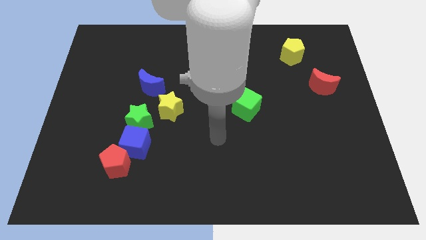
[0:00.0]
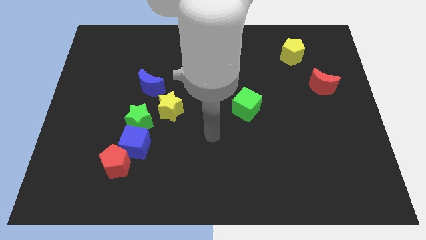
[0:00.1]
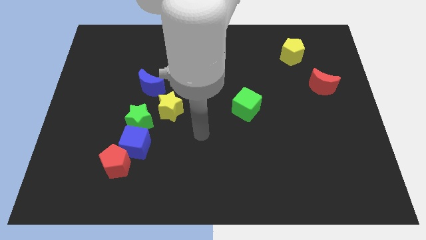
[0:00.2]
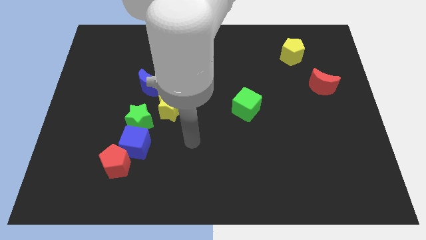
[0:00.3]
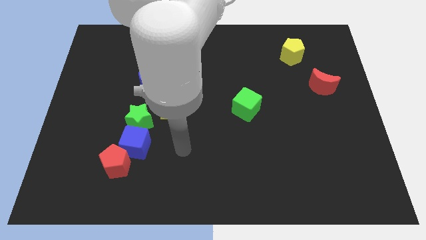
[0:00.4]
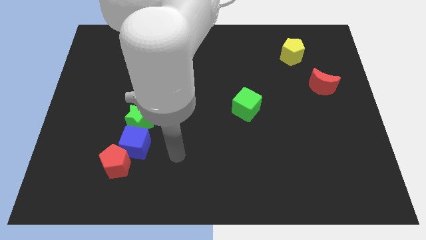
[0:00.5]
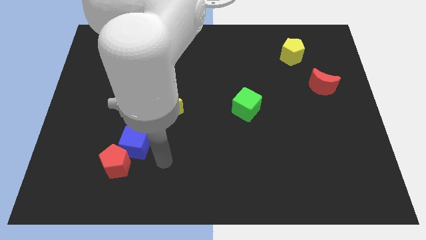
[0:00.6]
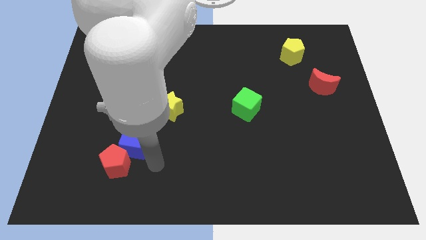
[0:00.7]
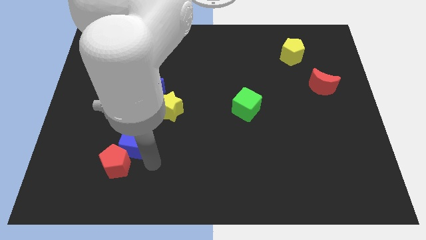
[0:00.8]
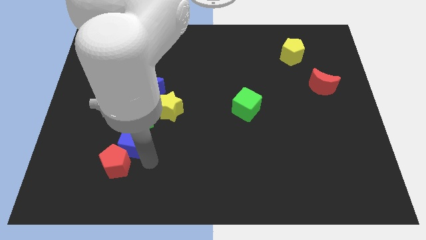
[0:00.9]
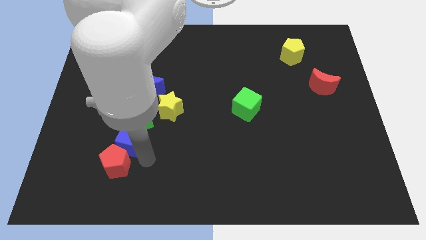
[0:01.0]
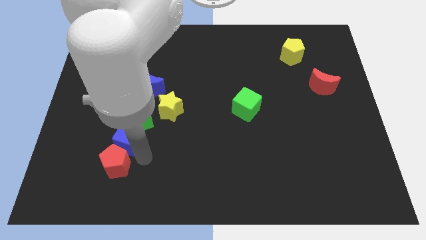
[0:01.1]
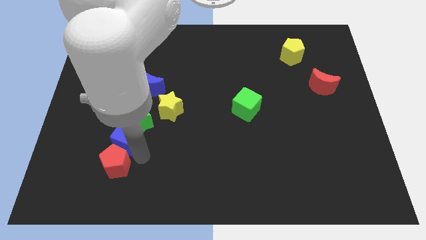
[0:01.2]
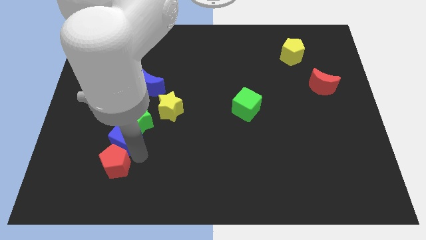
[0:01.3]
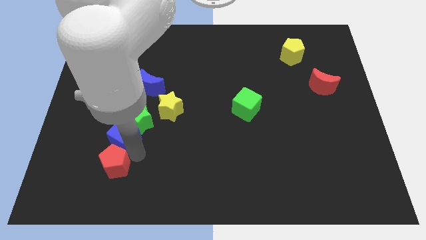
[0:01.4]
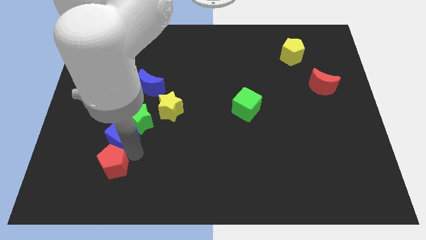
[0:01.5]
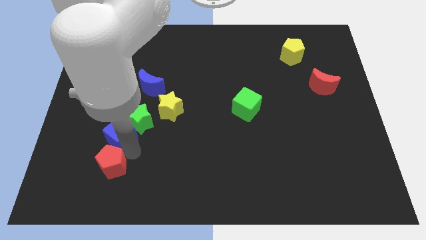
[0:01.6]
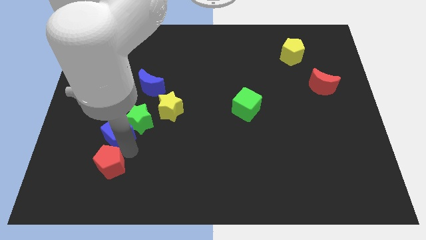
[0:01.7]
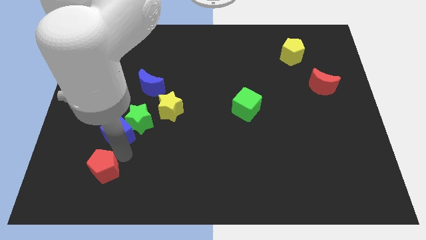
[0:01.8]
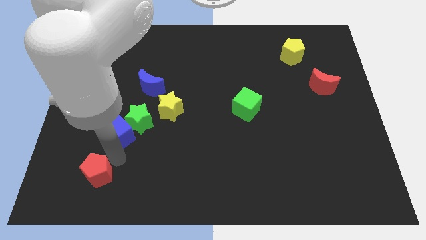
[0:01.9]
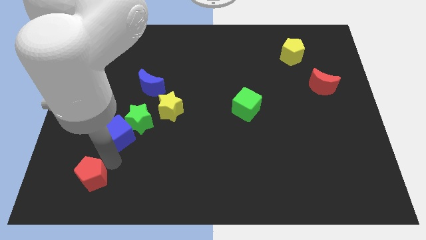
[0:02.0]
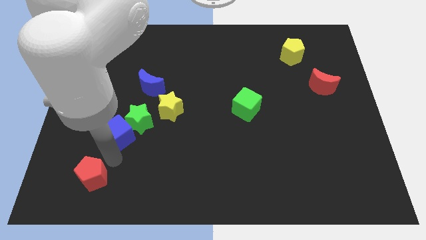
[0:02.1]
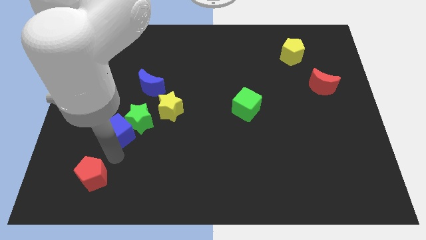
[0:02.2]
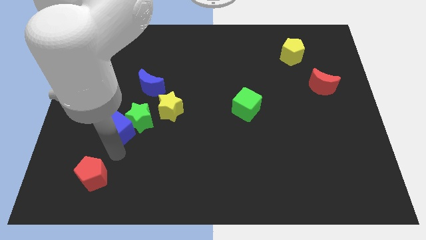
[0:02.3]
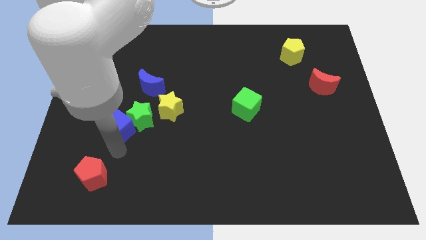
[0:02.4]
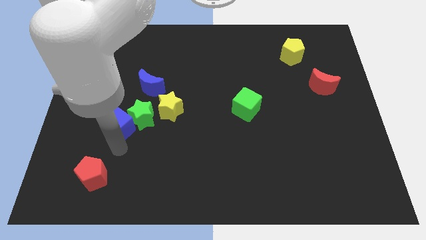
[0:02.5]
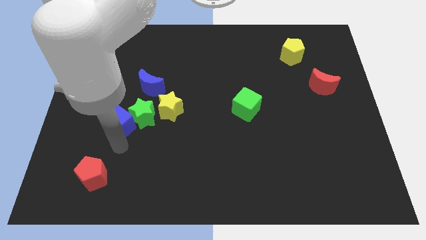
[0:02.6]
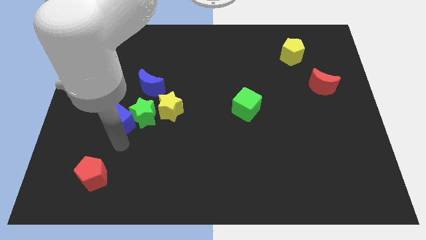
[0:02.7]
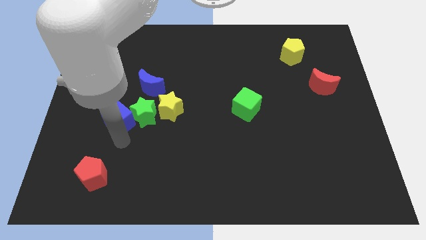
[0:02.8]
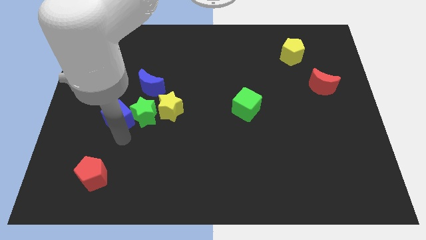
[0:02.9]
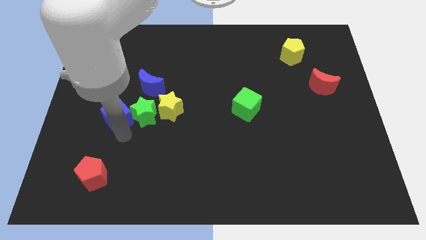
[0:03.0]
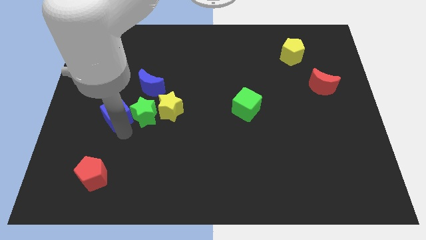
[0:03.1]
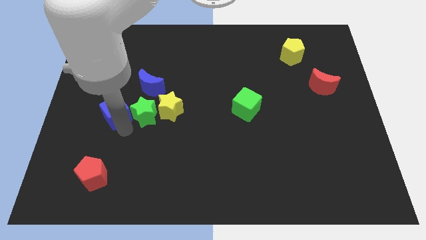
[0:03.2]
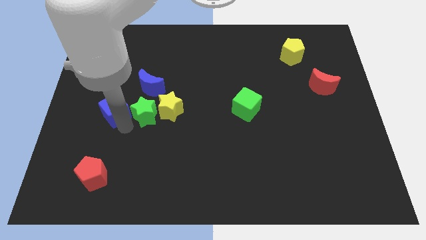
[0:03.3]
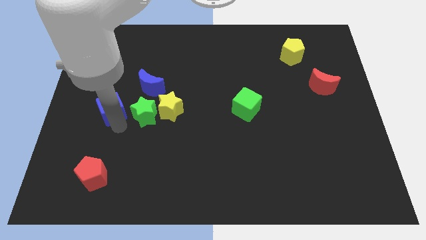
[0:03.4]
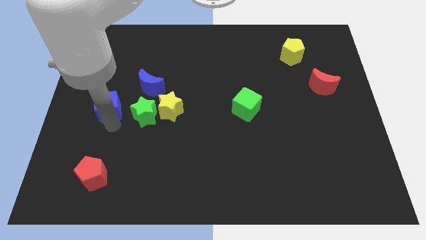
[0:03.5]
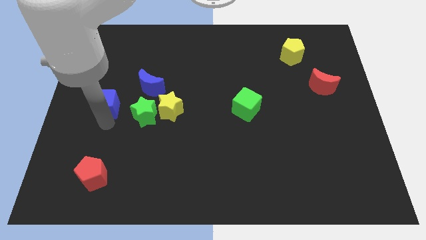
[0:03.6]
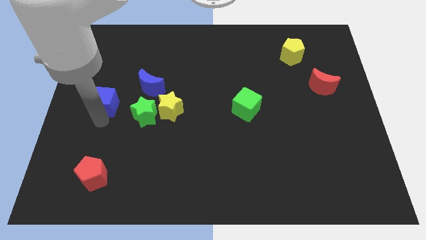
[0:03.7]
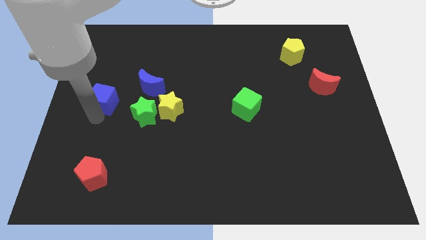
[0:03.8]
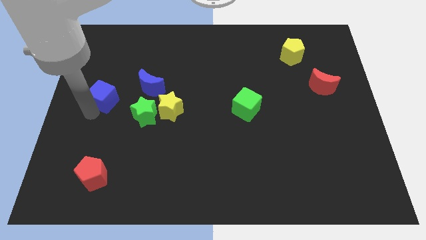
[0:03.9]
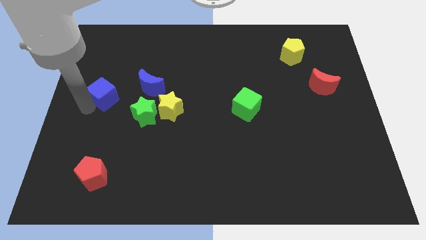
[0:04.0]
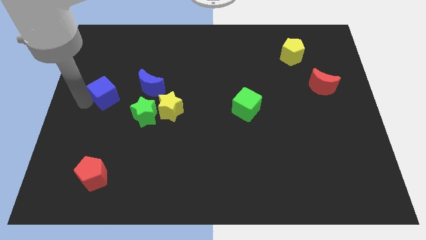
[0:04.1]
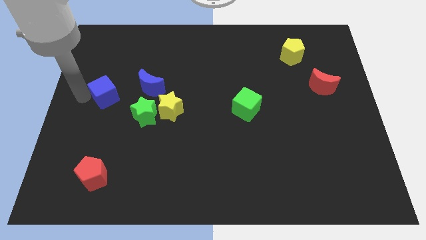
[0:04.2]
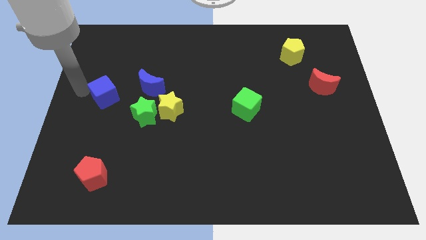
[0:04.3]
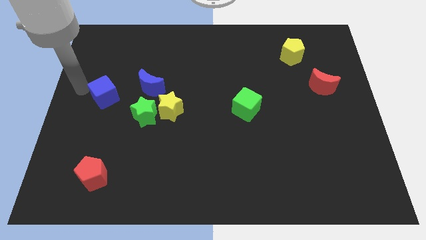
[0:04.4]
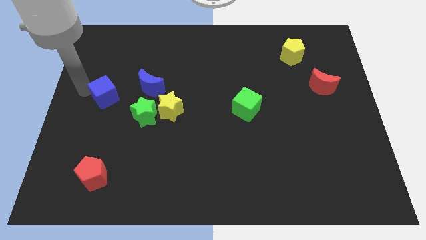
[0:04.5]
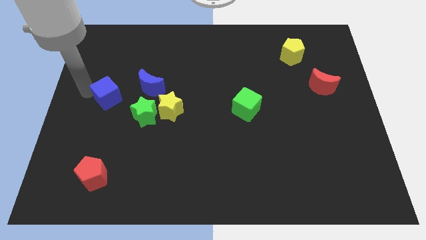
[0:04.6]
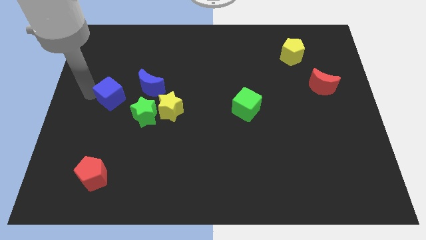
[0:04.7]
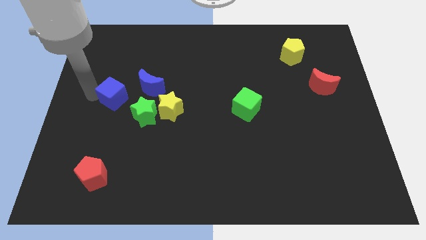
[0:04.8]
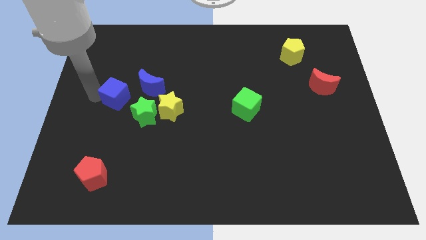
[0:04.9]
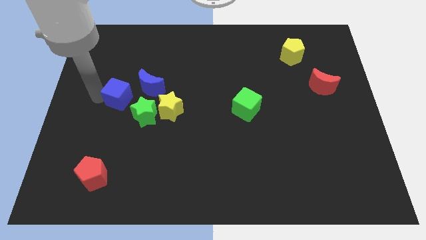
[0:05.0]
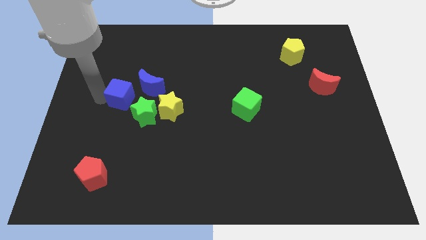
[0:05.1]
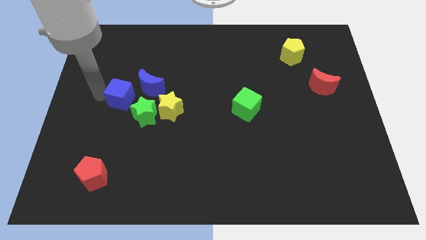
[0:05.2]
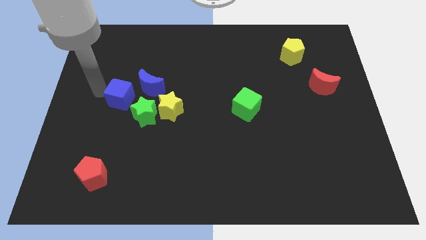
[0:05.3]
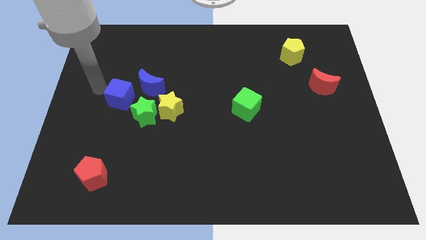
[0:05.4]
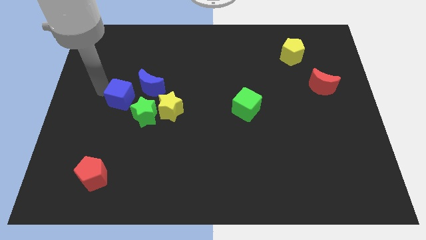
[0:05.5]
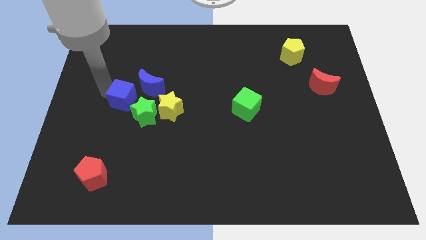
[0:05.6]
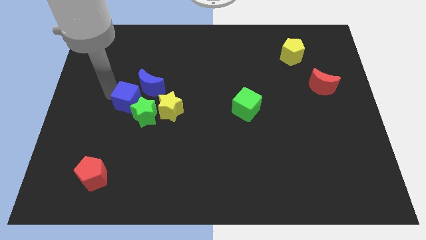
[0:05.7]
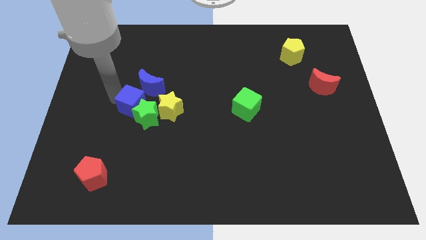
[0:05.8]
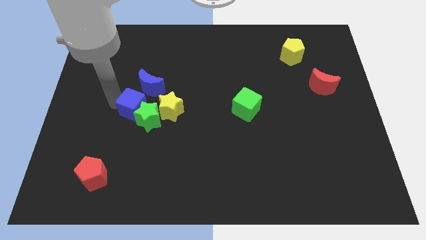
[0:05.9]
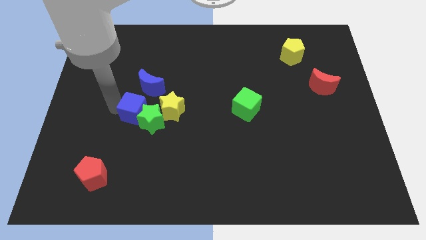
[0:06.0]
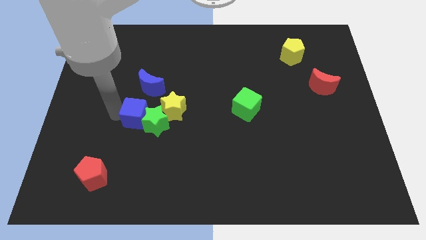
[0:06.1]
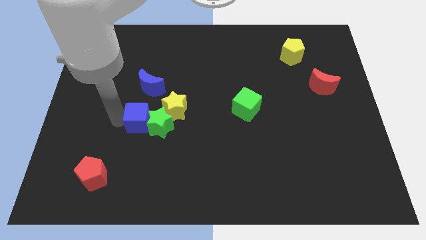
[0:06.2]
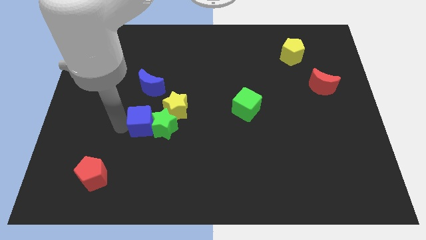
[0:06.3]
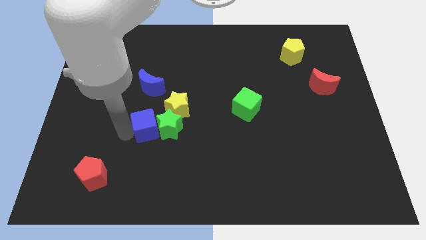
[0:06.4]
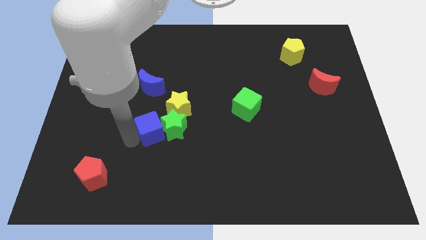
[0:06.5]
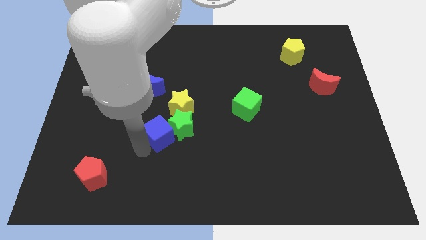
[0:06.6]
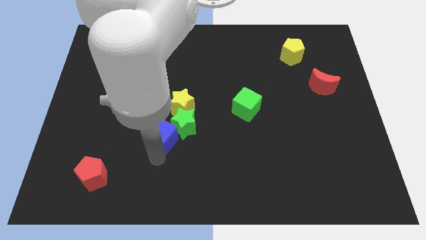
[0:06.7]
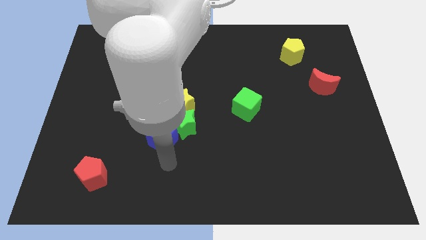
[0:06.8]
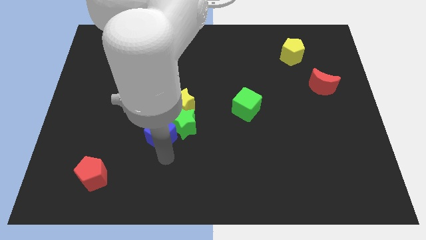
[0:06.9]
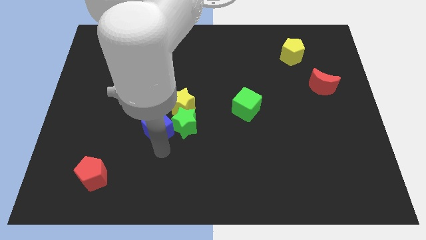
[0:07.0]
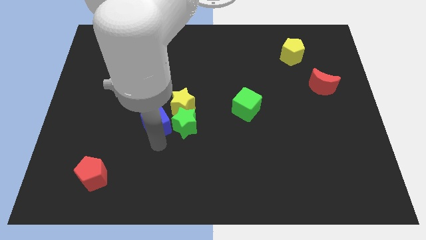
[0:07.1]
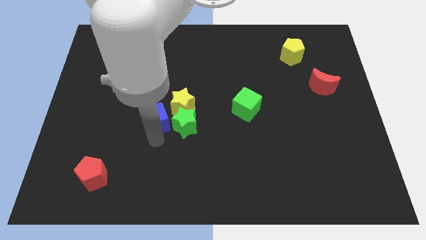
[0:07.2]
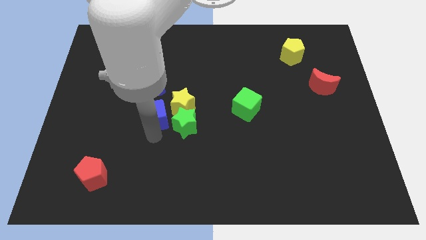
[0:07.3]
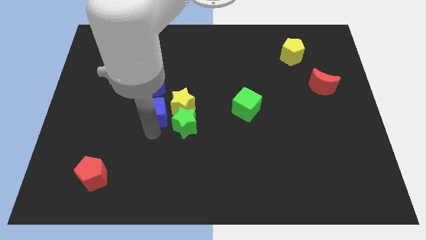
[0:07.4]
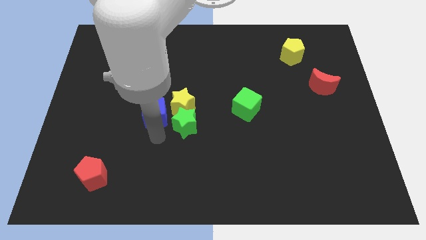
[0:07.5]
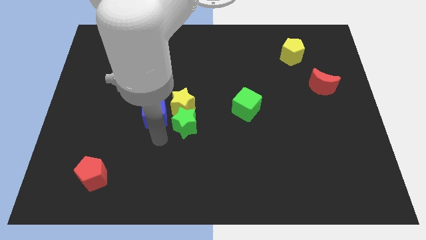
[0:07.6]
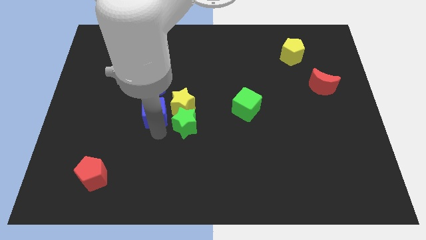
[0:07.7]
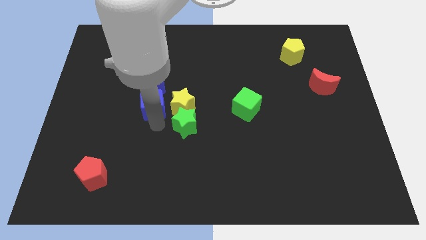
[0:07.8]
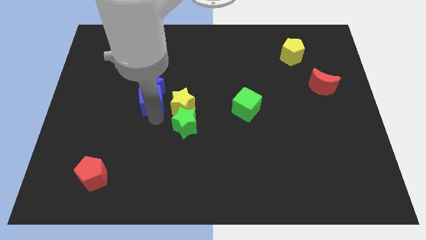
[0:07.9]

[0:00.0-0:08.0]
push the blue cube next to the blue moon
